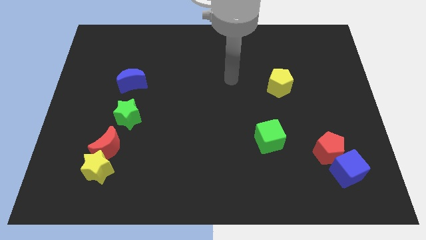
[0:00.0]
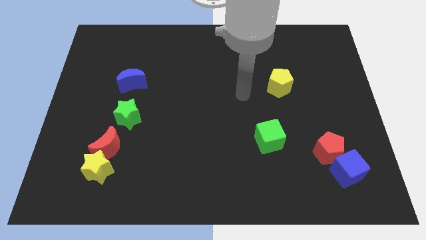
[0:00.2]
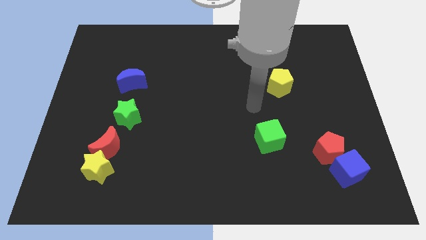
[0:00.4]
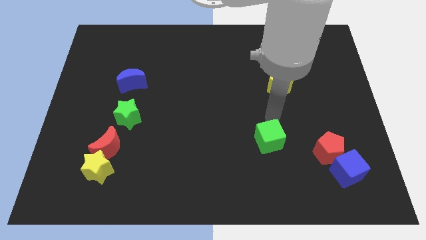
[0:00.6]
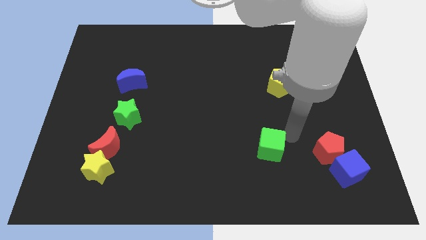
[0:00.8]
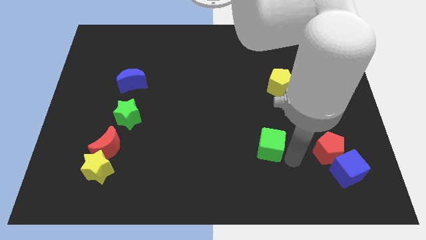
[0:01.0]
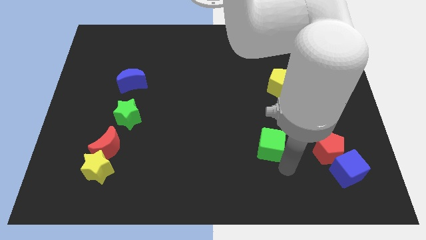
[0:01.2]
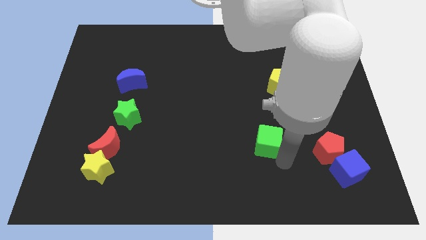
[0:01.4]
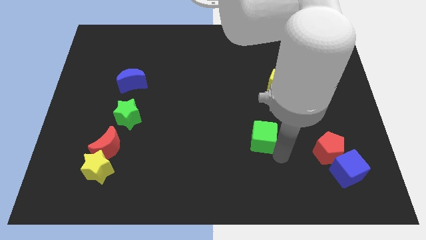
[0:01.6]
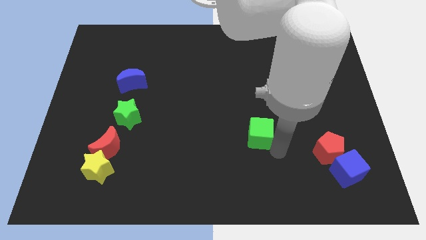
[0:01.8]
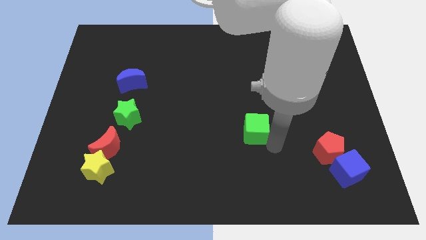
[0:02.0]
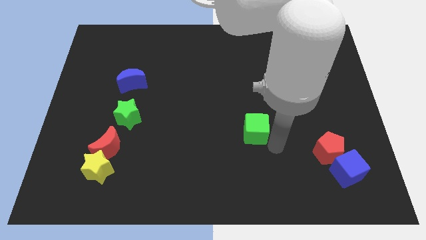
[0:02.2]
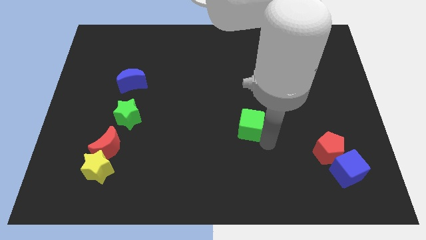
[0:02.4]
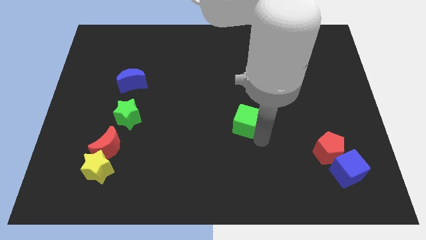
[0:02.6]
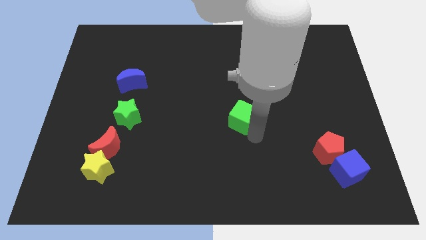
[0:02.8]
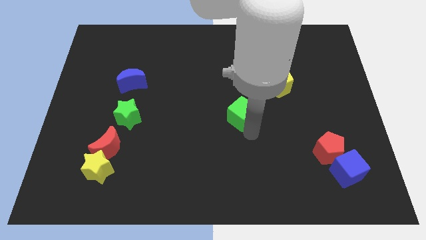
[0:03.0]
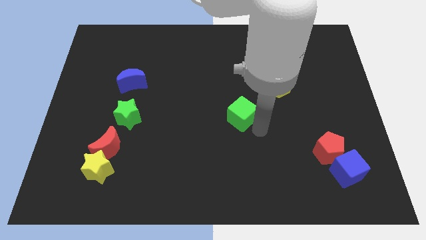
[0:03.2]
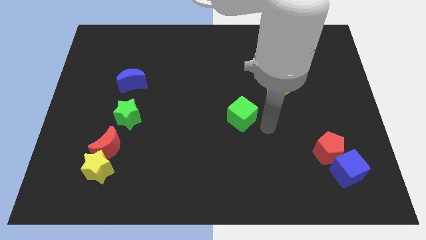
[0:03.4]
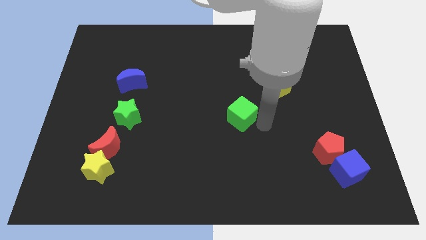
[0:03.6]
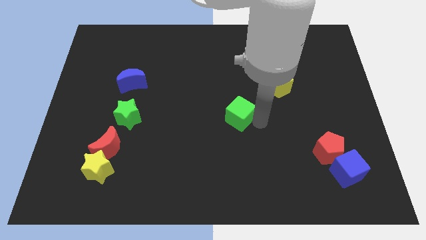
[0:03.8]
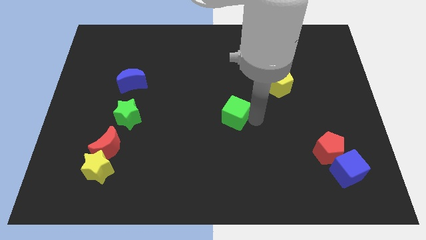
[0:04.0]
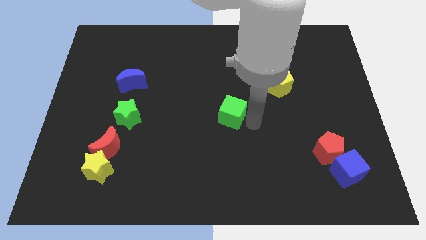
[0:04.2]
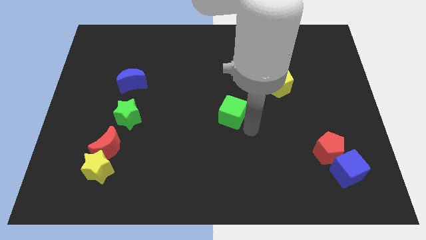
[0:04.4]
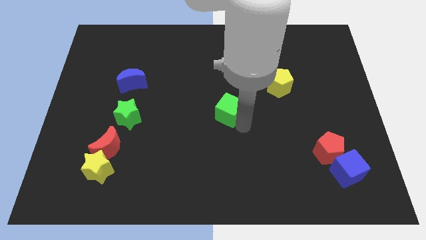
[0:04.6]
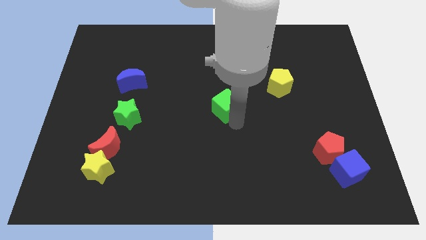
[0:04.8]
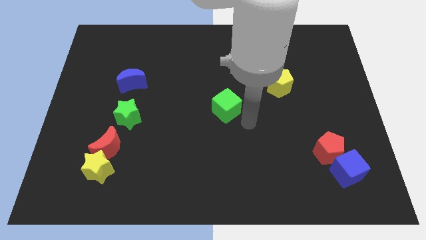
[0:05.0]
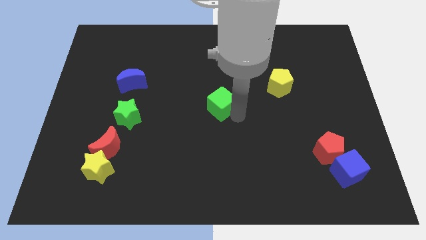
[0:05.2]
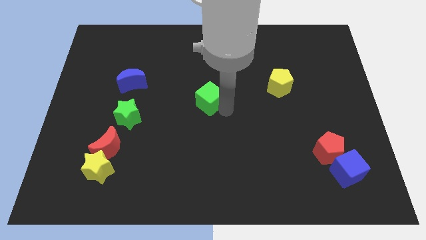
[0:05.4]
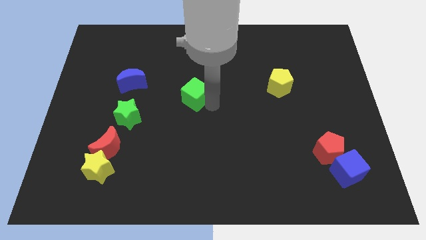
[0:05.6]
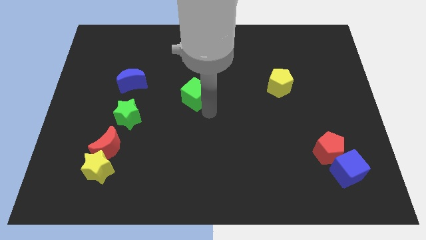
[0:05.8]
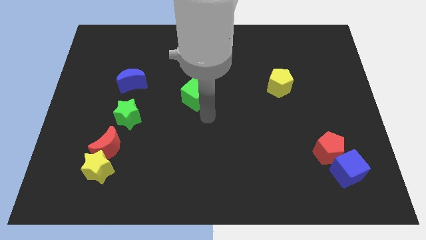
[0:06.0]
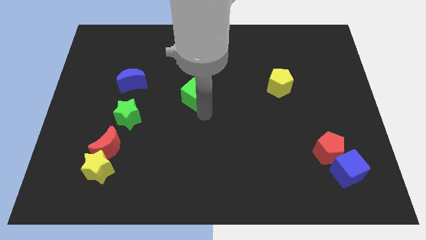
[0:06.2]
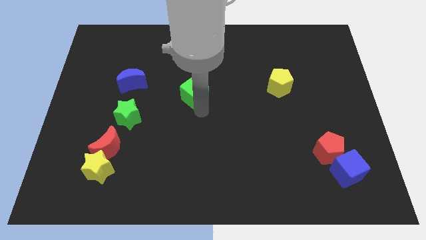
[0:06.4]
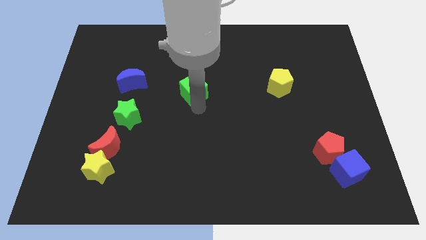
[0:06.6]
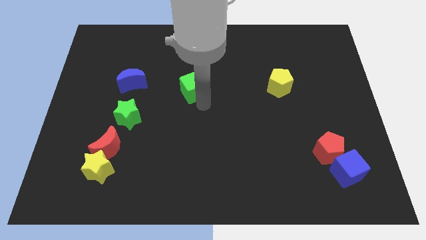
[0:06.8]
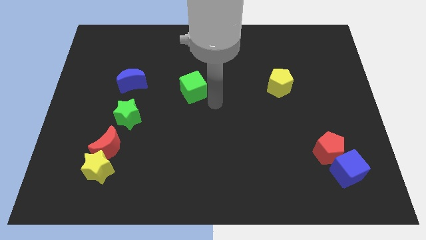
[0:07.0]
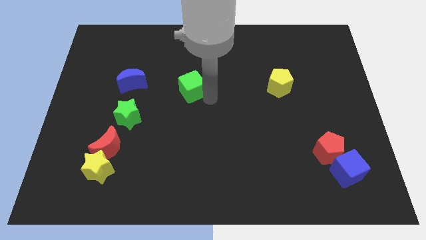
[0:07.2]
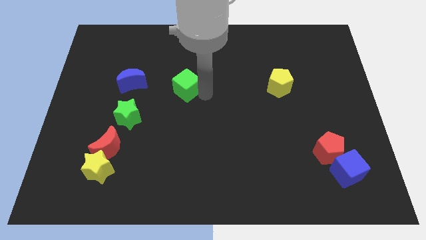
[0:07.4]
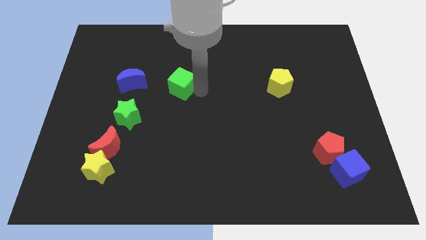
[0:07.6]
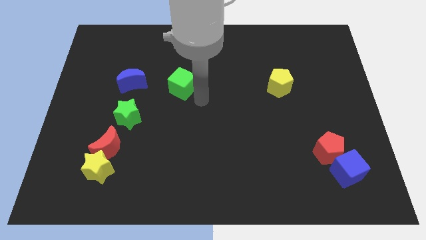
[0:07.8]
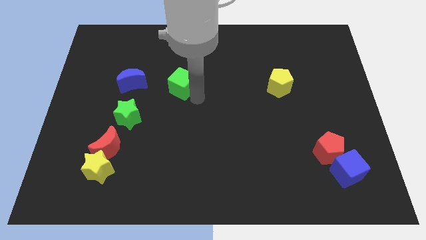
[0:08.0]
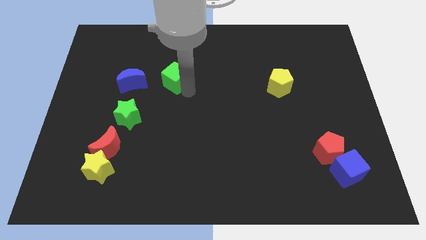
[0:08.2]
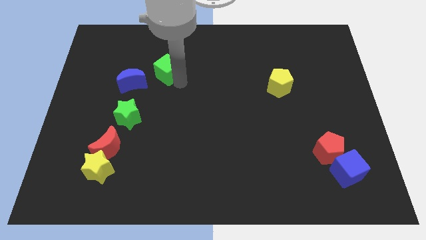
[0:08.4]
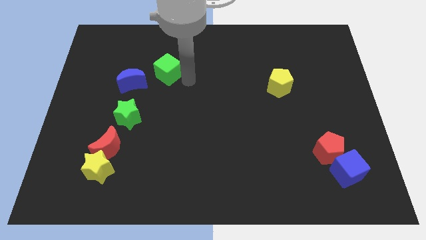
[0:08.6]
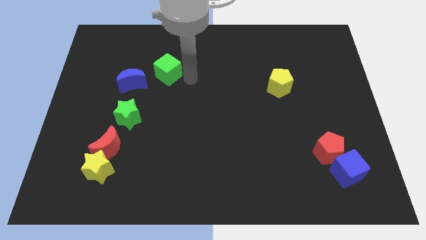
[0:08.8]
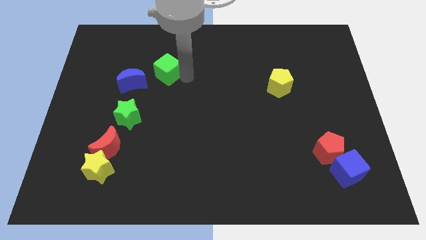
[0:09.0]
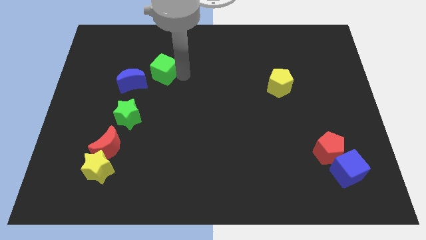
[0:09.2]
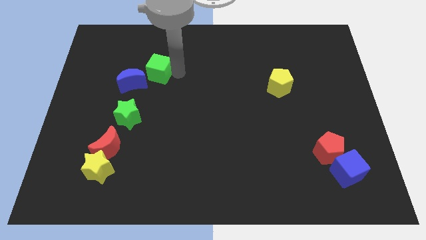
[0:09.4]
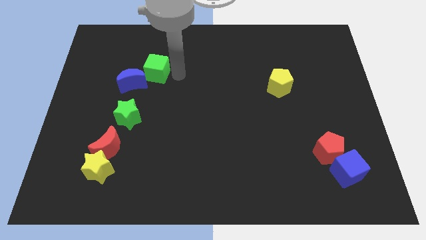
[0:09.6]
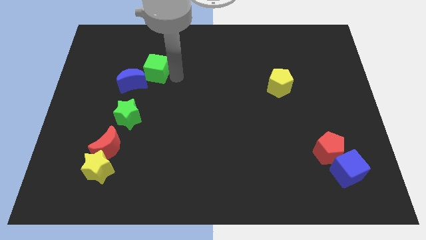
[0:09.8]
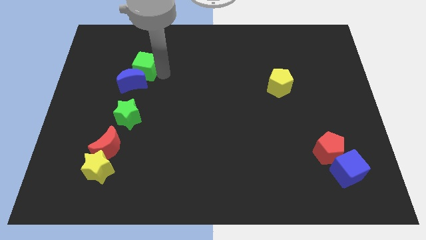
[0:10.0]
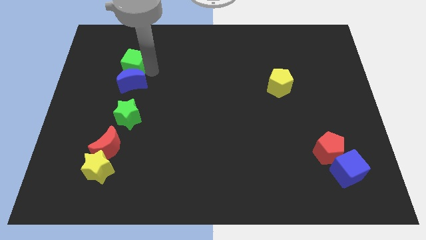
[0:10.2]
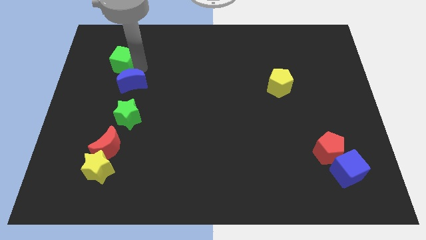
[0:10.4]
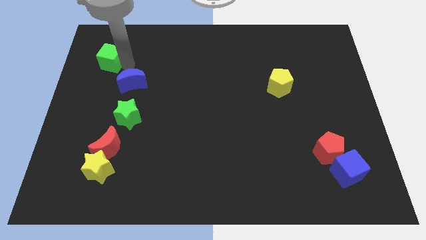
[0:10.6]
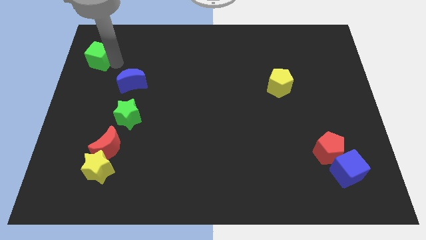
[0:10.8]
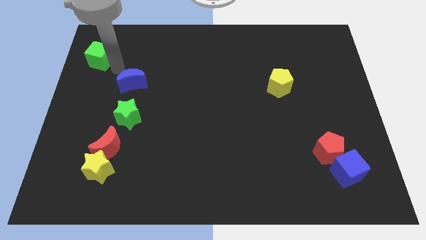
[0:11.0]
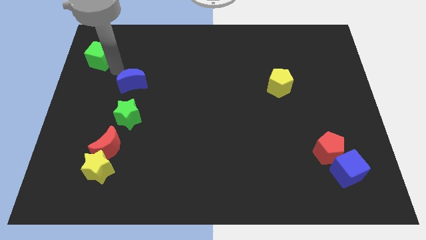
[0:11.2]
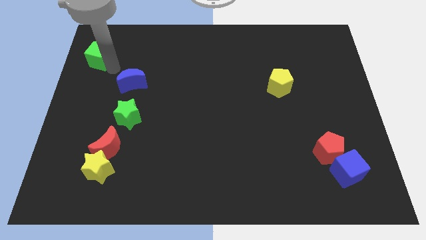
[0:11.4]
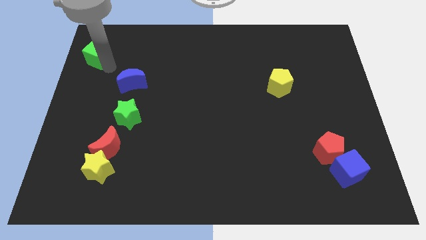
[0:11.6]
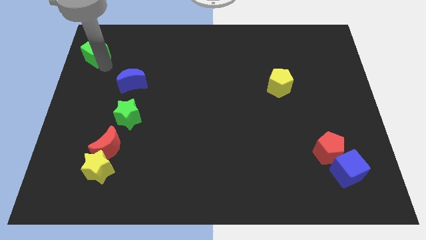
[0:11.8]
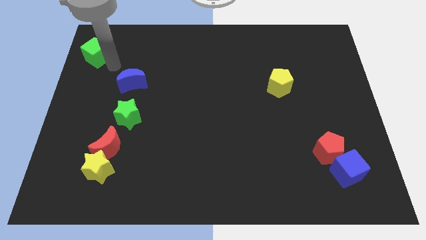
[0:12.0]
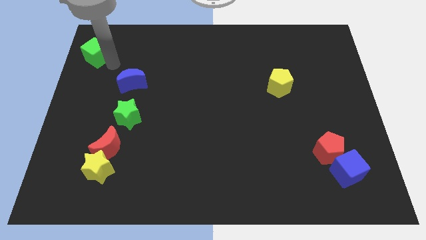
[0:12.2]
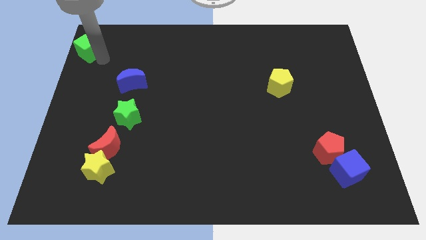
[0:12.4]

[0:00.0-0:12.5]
push the green cube to the top left
